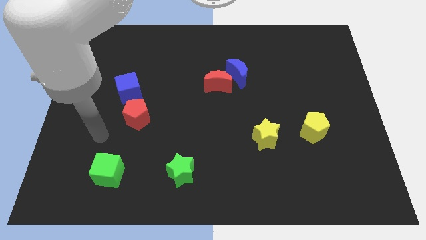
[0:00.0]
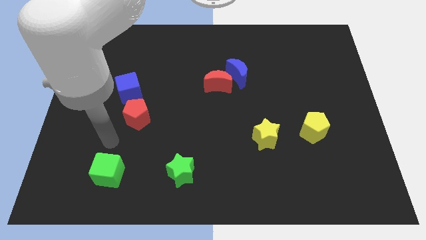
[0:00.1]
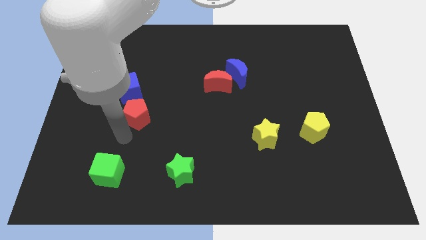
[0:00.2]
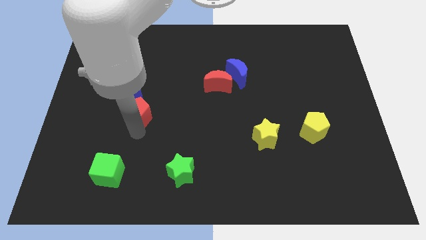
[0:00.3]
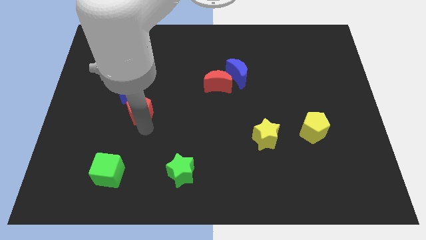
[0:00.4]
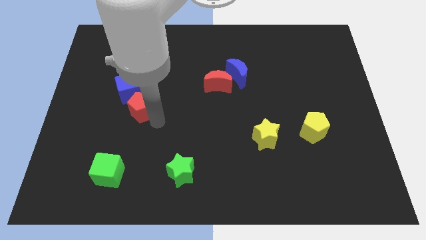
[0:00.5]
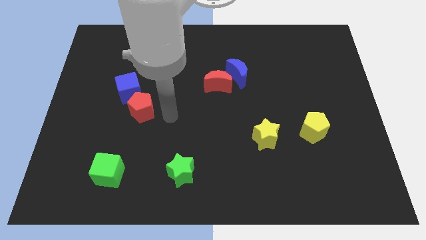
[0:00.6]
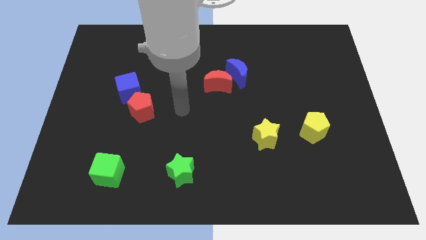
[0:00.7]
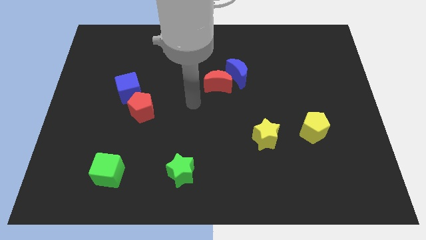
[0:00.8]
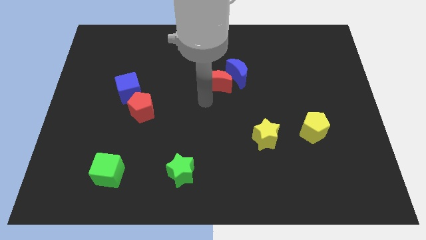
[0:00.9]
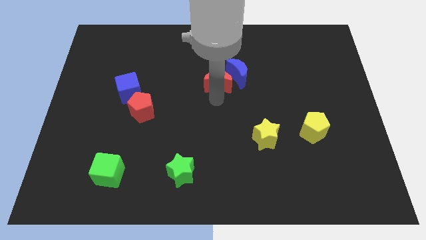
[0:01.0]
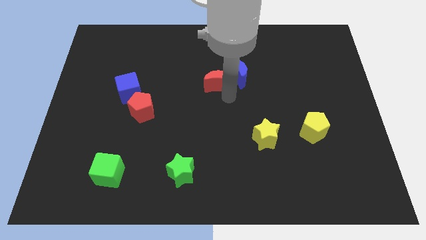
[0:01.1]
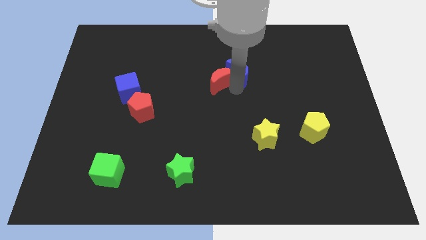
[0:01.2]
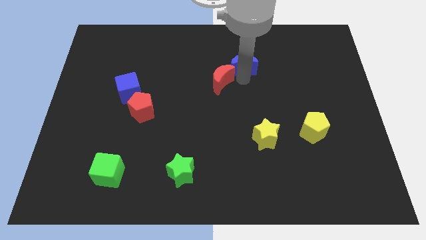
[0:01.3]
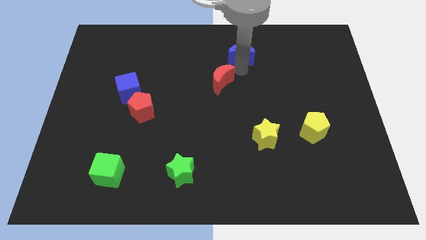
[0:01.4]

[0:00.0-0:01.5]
move the red moon away from the blue moon

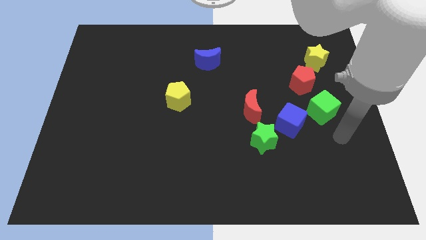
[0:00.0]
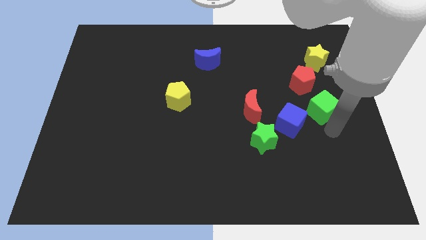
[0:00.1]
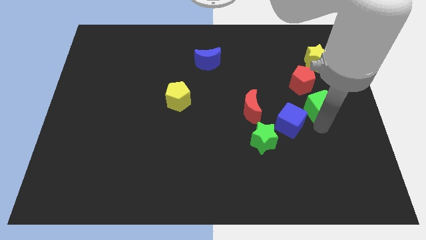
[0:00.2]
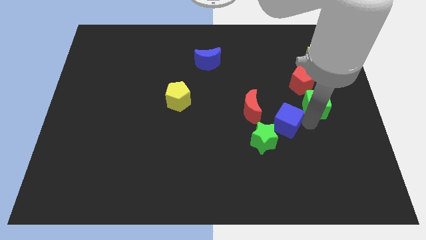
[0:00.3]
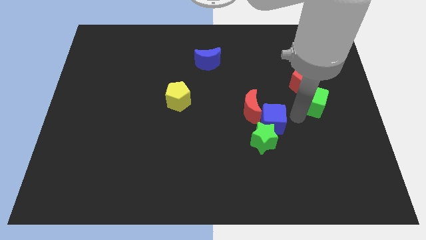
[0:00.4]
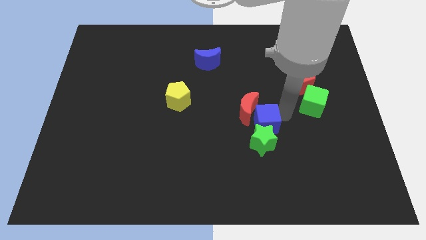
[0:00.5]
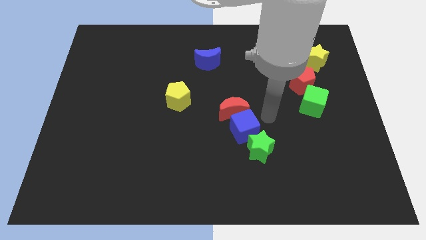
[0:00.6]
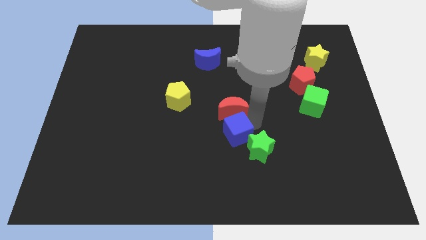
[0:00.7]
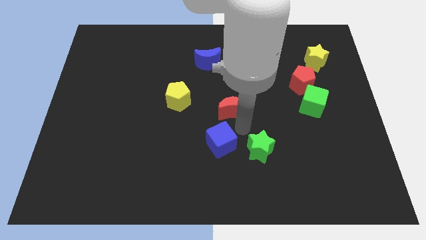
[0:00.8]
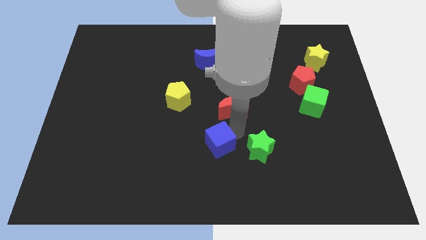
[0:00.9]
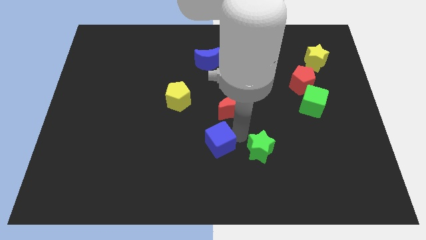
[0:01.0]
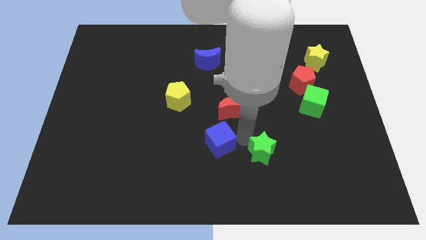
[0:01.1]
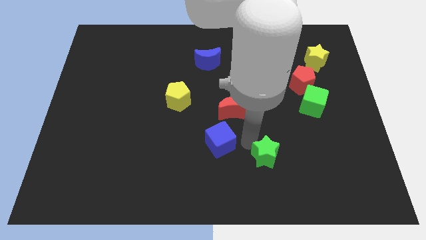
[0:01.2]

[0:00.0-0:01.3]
move the green star away from the blue cube and red moon

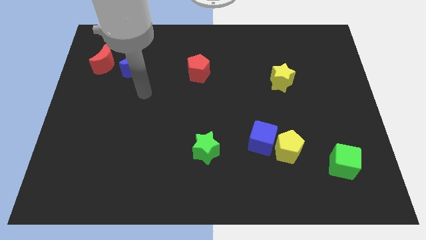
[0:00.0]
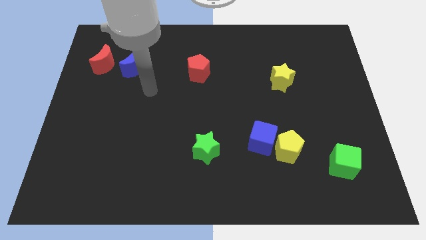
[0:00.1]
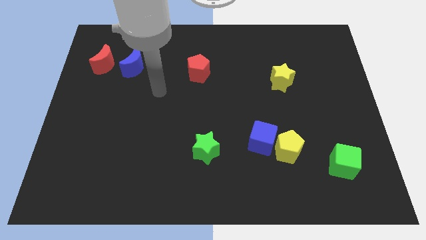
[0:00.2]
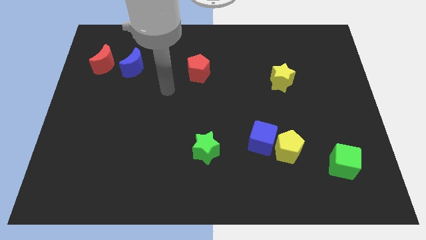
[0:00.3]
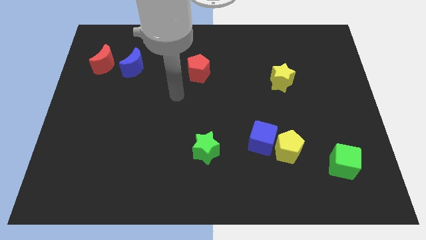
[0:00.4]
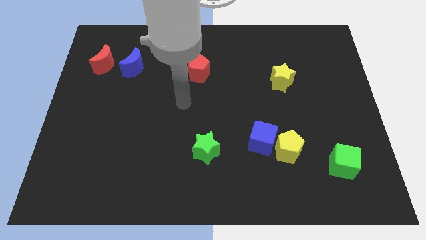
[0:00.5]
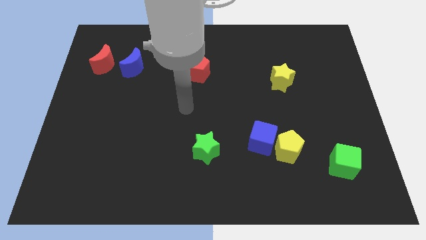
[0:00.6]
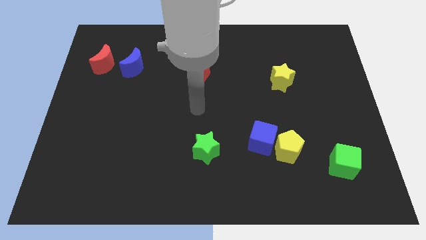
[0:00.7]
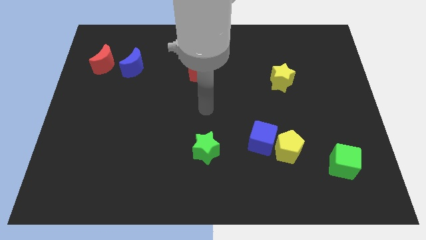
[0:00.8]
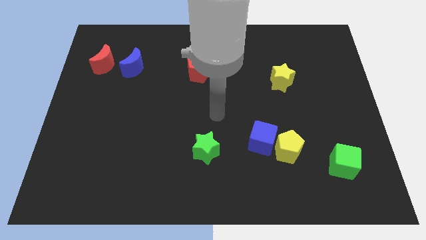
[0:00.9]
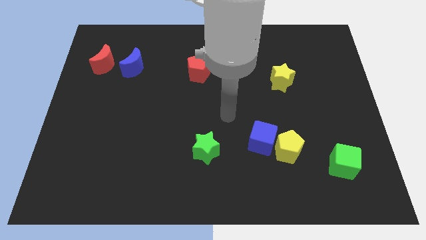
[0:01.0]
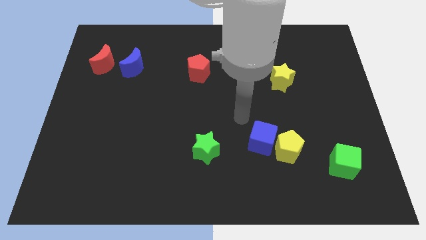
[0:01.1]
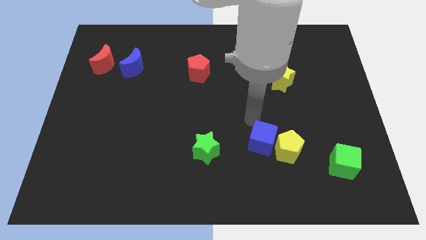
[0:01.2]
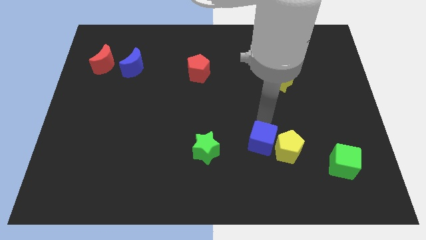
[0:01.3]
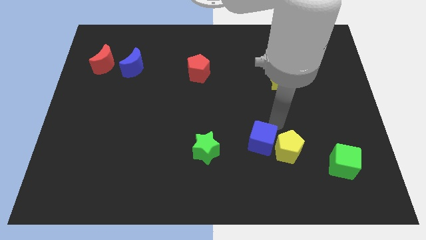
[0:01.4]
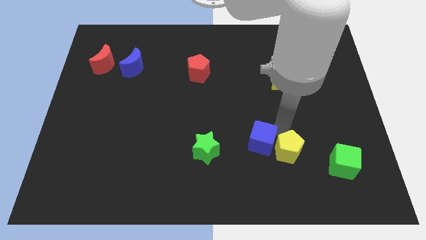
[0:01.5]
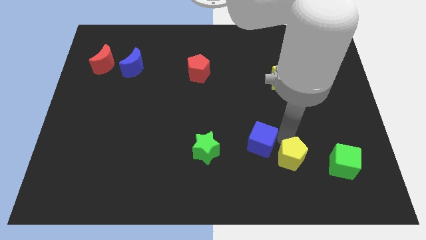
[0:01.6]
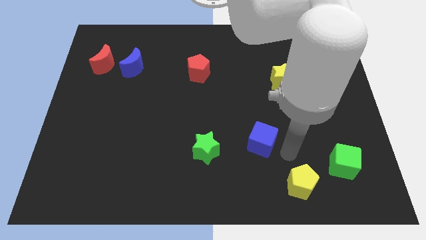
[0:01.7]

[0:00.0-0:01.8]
separate the blue cube from the yellow pentagon

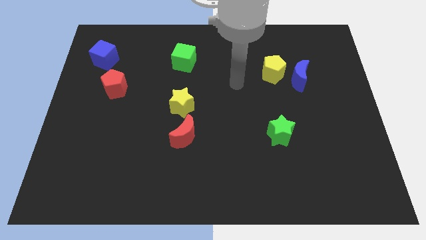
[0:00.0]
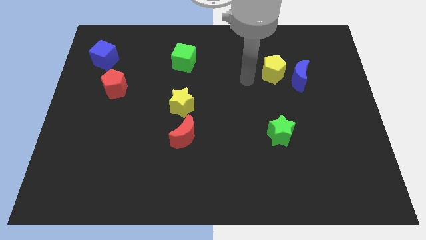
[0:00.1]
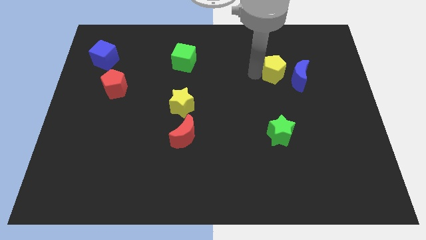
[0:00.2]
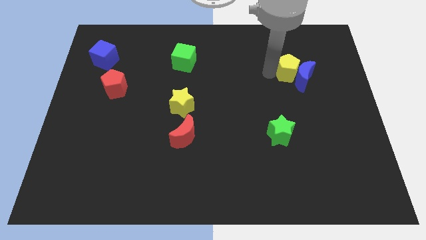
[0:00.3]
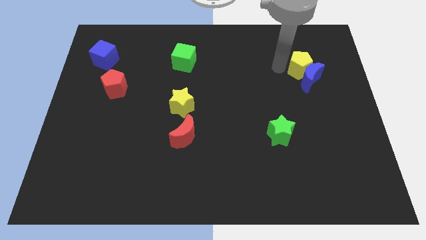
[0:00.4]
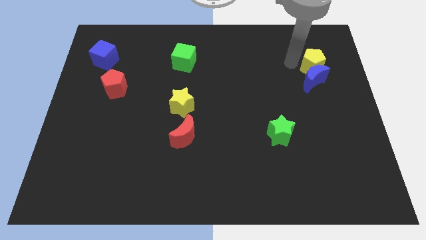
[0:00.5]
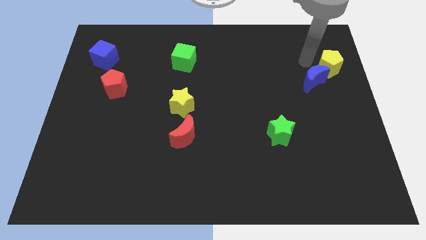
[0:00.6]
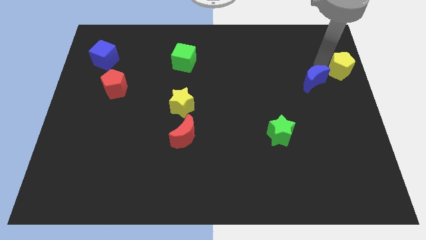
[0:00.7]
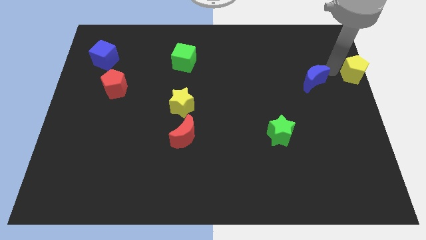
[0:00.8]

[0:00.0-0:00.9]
pull the blue moon apart from the yellow pentagon

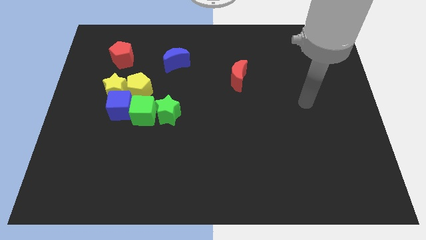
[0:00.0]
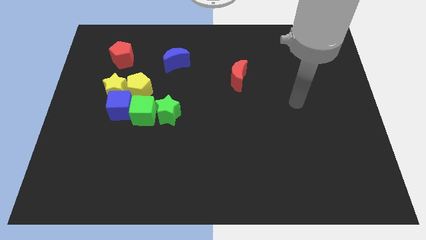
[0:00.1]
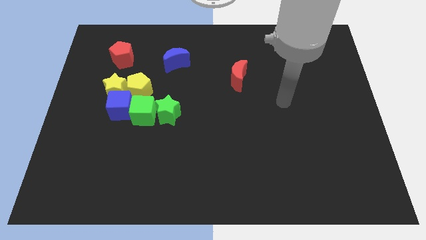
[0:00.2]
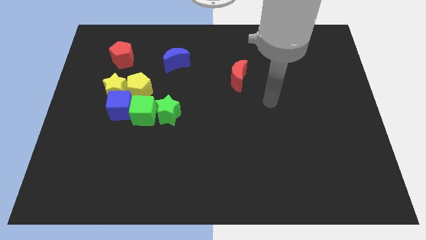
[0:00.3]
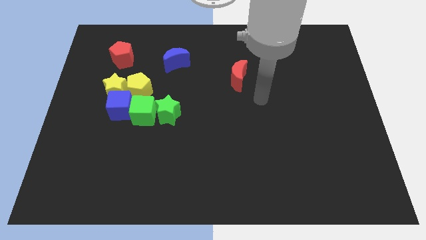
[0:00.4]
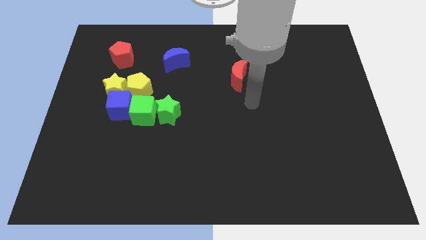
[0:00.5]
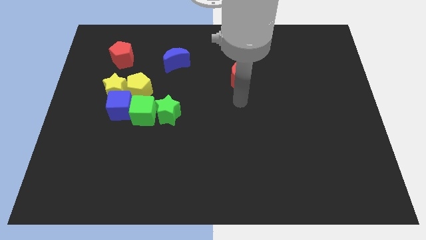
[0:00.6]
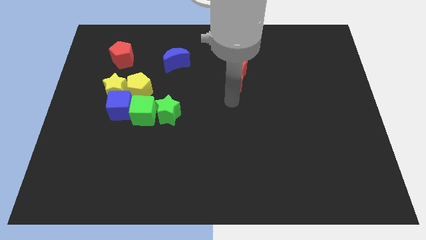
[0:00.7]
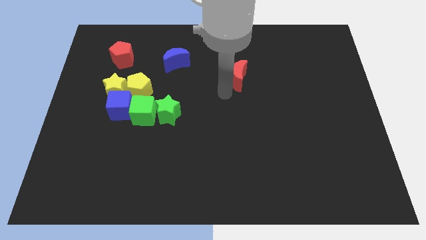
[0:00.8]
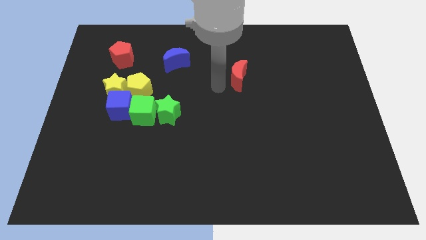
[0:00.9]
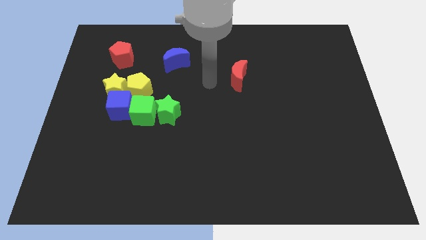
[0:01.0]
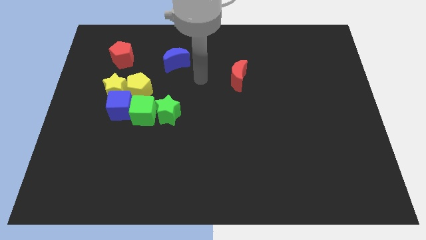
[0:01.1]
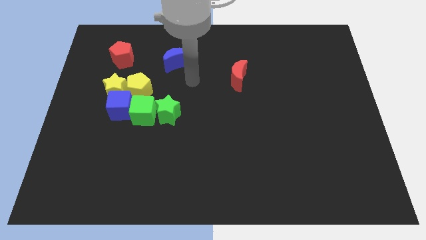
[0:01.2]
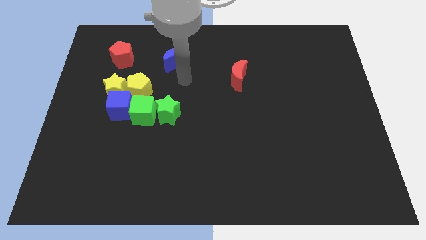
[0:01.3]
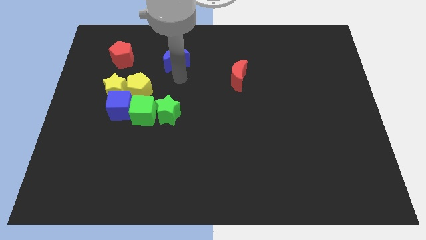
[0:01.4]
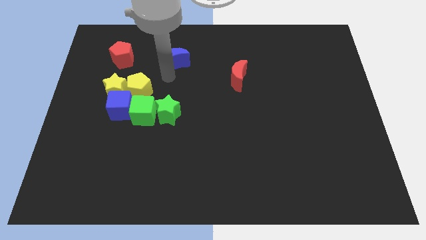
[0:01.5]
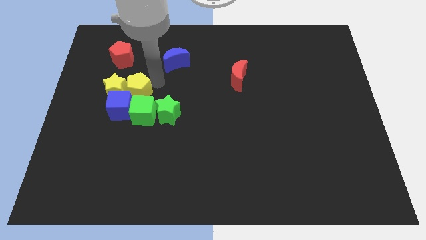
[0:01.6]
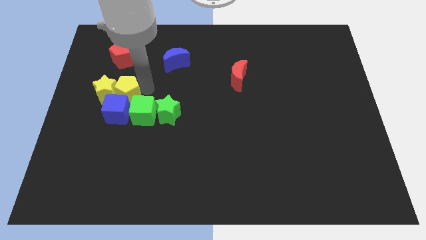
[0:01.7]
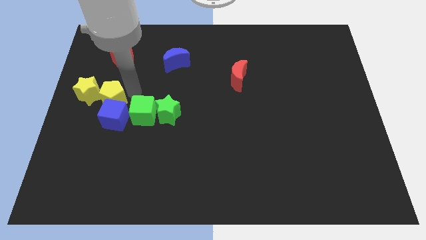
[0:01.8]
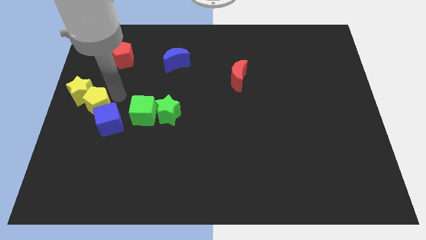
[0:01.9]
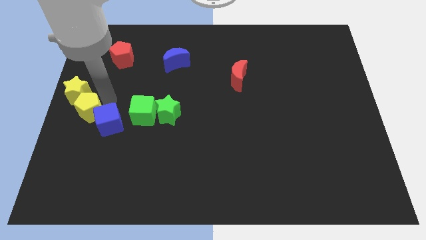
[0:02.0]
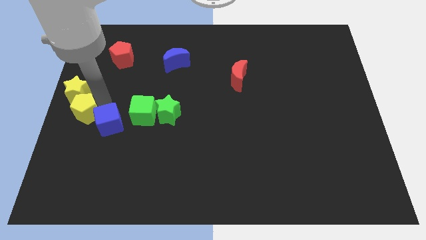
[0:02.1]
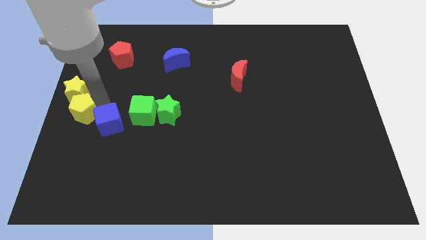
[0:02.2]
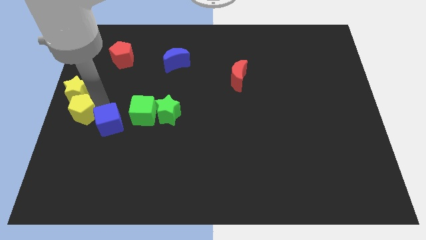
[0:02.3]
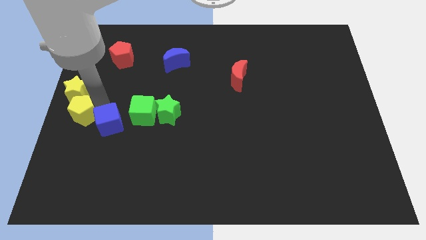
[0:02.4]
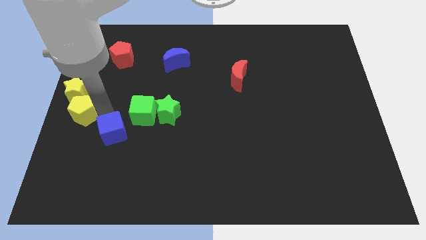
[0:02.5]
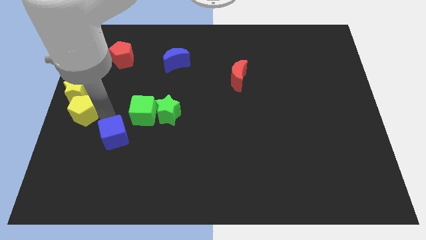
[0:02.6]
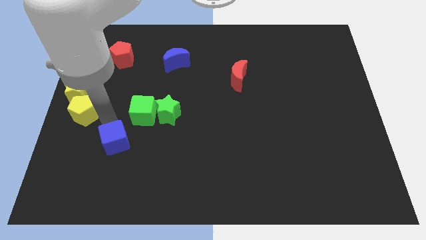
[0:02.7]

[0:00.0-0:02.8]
separate the blue cube from the yellow star, green cube, and yellow pentagon

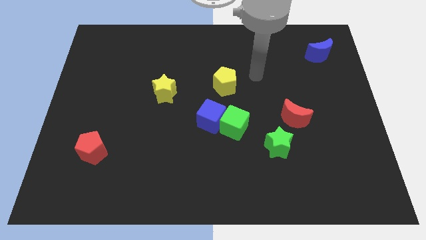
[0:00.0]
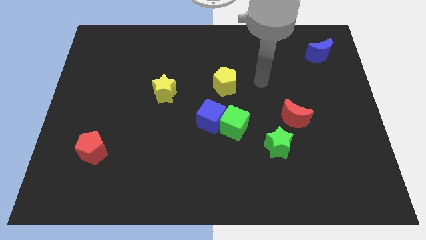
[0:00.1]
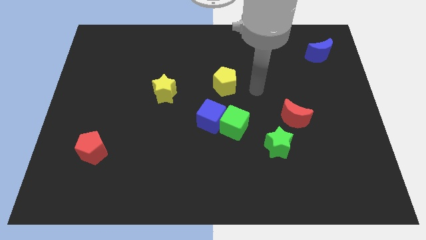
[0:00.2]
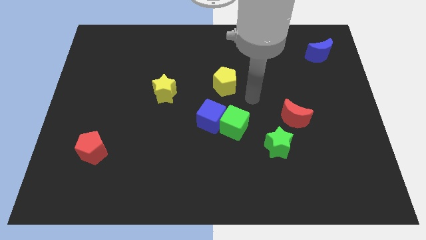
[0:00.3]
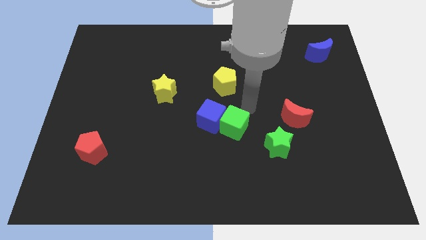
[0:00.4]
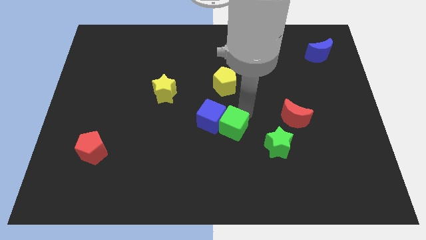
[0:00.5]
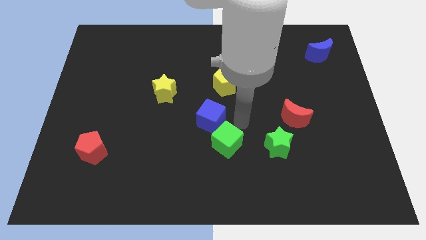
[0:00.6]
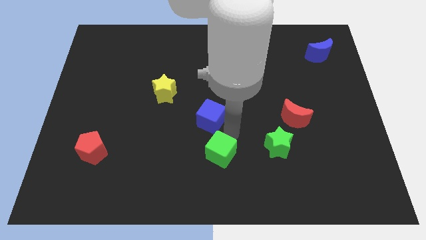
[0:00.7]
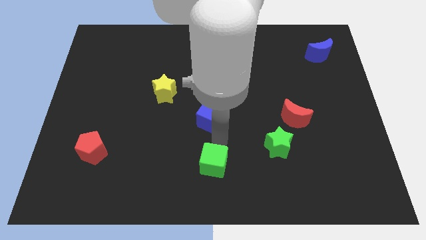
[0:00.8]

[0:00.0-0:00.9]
separate the blue cube from the green cube

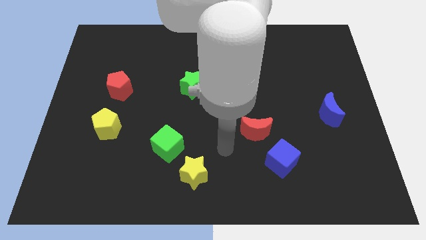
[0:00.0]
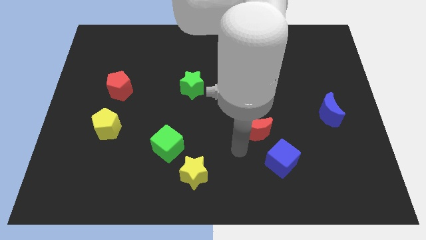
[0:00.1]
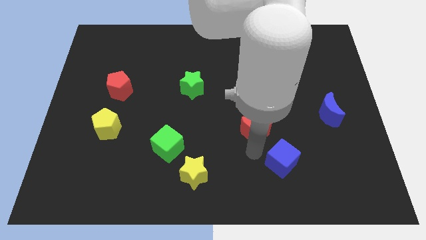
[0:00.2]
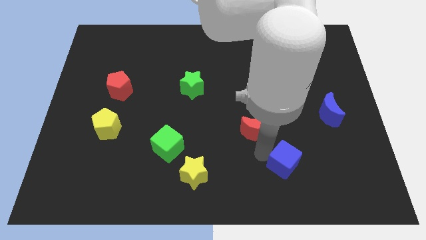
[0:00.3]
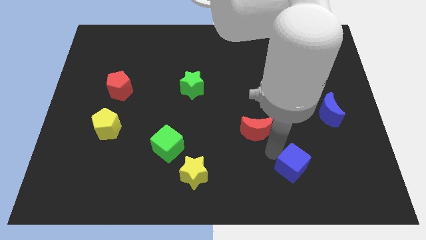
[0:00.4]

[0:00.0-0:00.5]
pull the red moon apart from the blue cube
